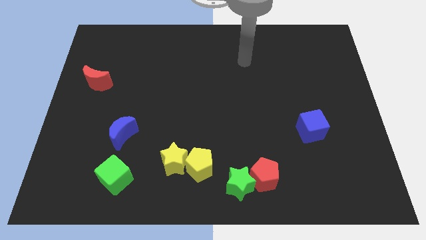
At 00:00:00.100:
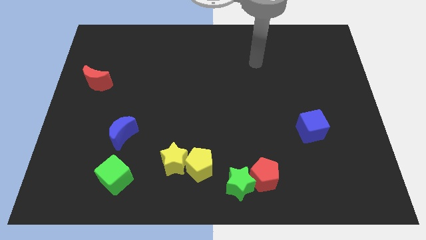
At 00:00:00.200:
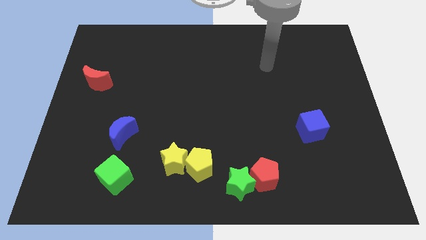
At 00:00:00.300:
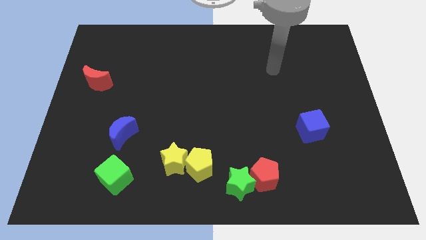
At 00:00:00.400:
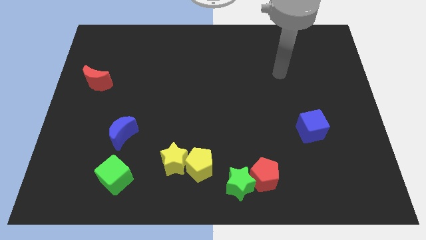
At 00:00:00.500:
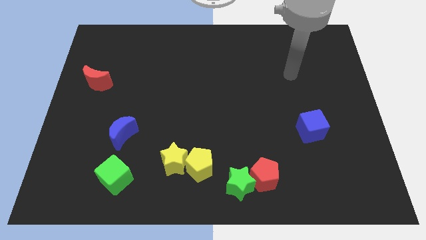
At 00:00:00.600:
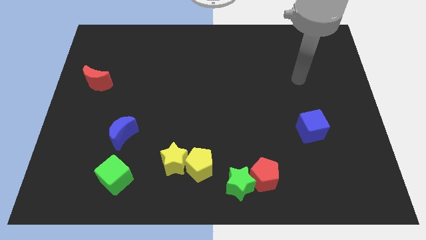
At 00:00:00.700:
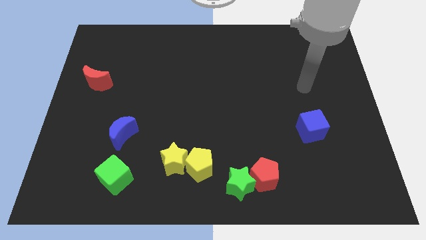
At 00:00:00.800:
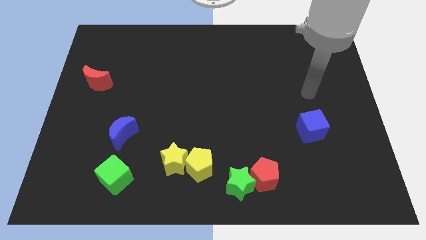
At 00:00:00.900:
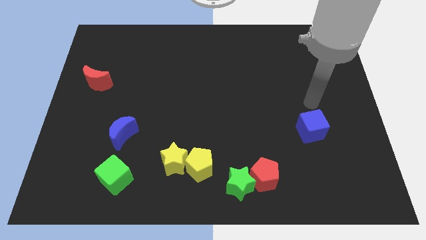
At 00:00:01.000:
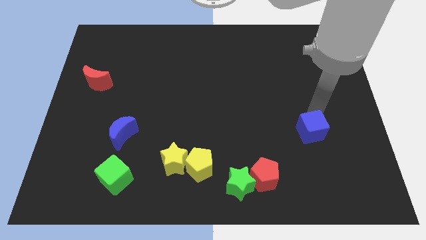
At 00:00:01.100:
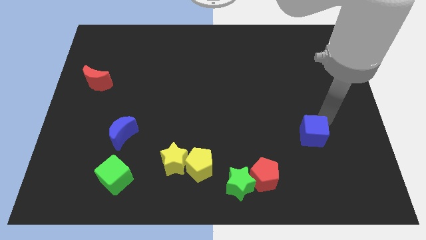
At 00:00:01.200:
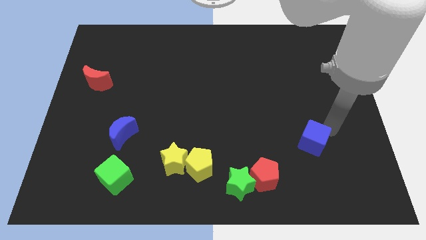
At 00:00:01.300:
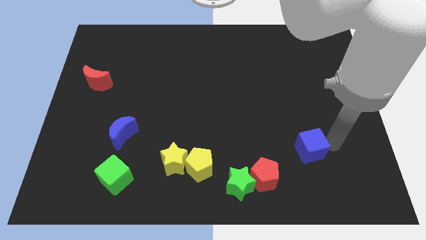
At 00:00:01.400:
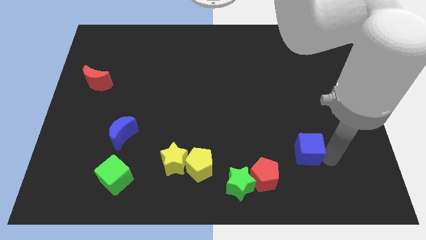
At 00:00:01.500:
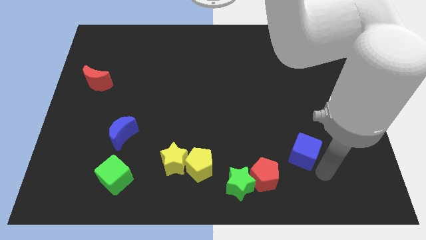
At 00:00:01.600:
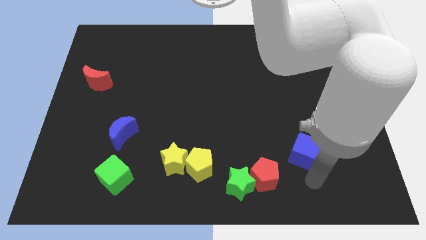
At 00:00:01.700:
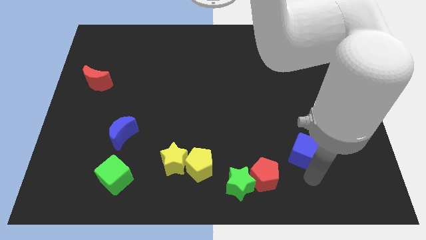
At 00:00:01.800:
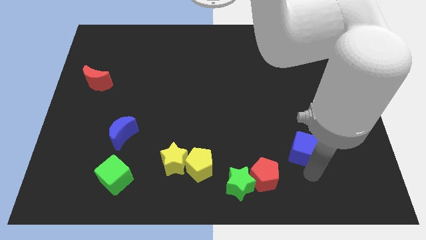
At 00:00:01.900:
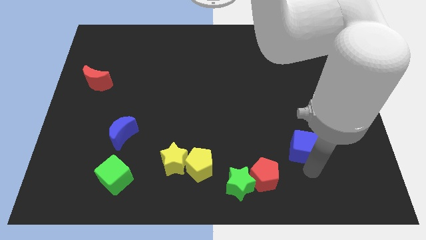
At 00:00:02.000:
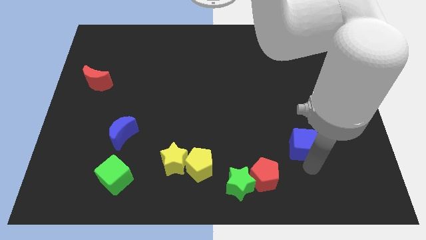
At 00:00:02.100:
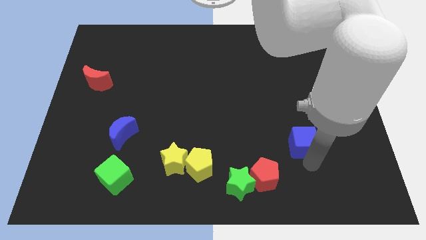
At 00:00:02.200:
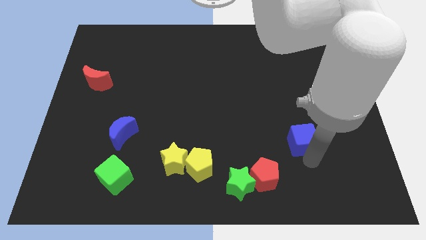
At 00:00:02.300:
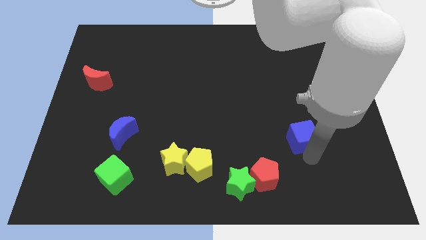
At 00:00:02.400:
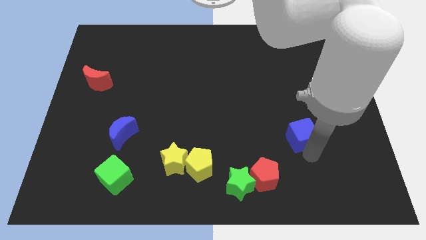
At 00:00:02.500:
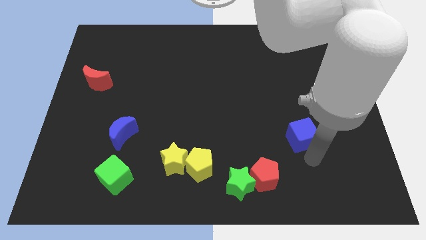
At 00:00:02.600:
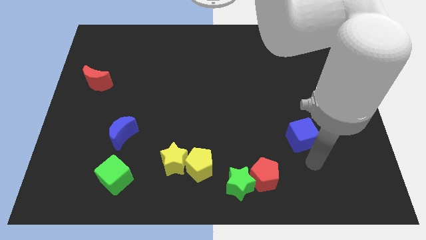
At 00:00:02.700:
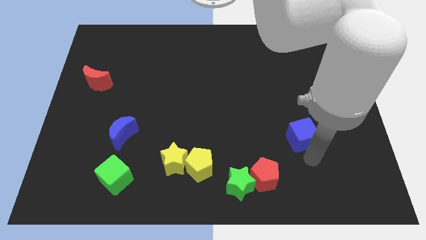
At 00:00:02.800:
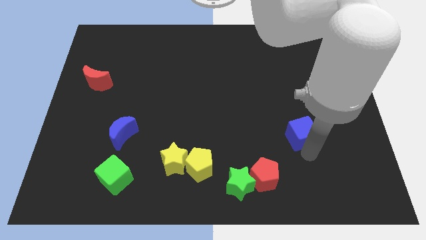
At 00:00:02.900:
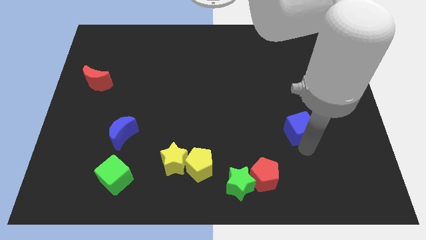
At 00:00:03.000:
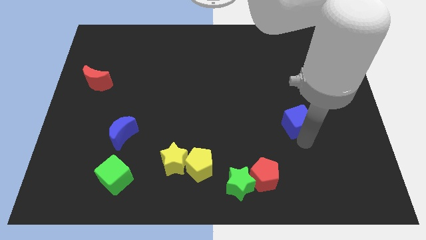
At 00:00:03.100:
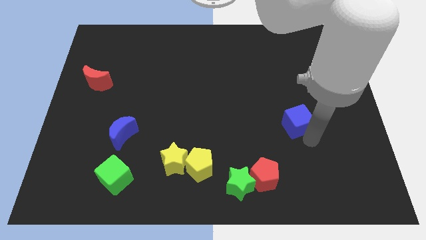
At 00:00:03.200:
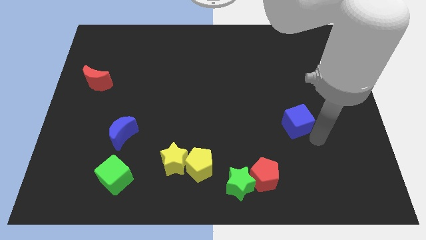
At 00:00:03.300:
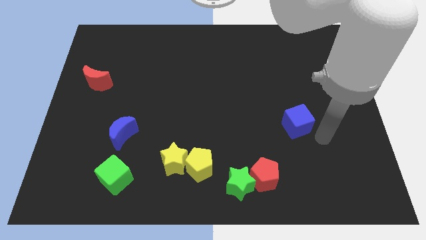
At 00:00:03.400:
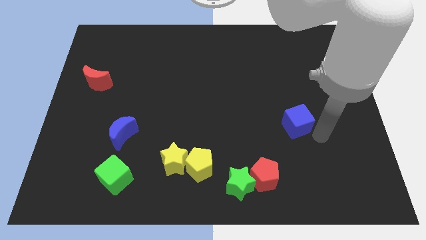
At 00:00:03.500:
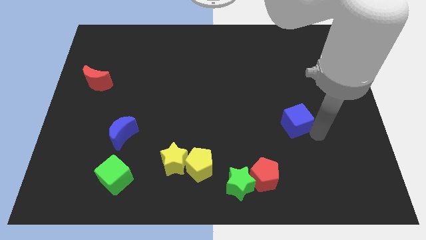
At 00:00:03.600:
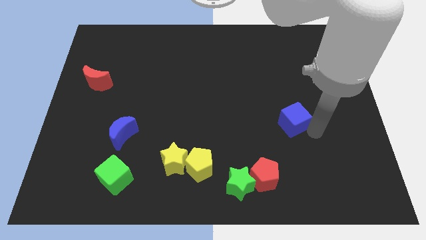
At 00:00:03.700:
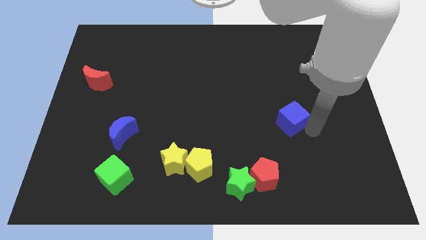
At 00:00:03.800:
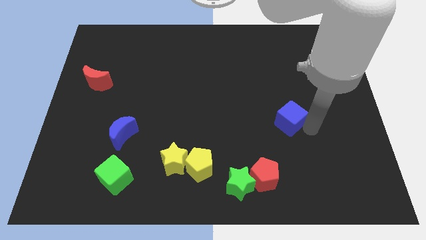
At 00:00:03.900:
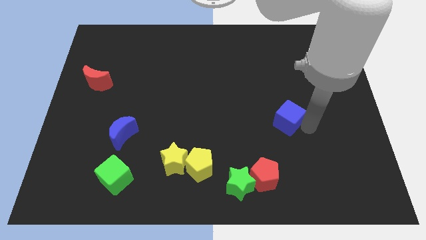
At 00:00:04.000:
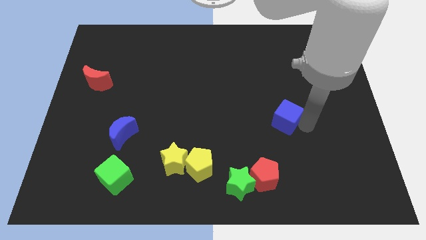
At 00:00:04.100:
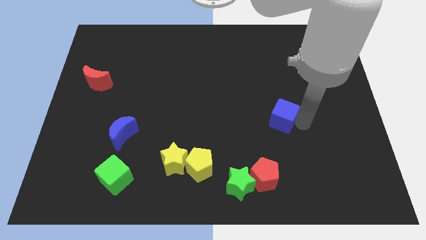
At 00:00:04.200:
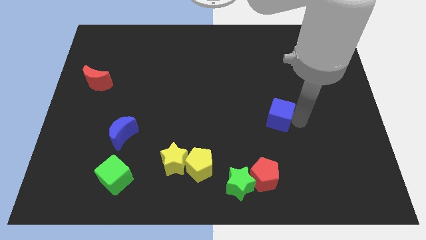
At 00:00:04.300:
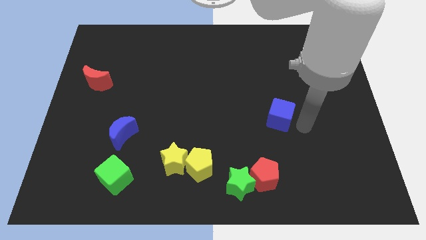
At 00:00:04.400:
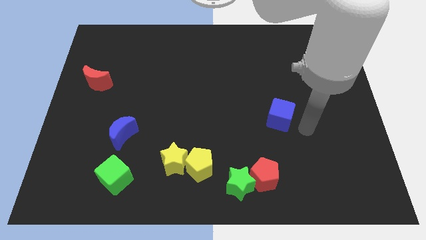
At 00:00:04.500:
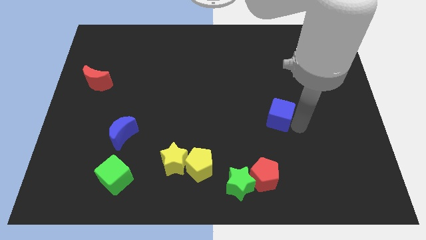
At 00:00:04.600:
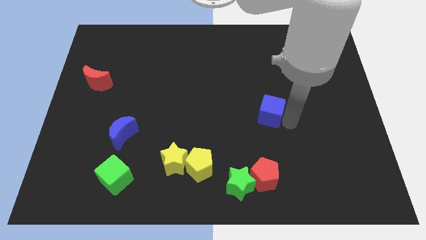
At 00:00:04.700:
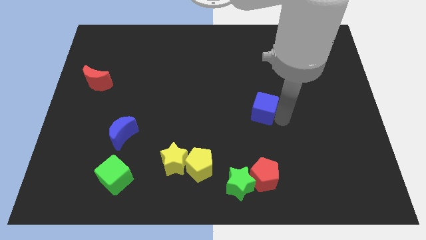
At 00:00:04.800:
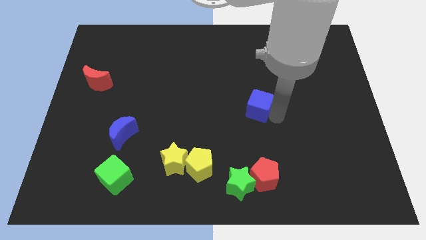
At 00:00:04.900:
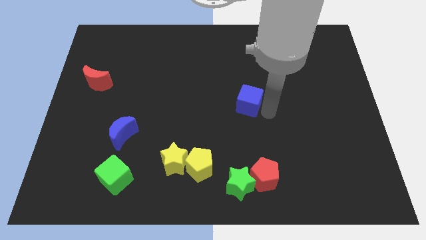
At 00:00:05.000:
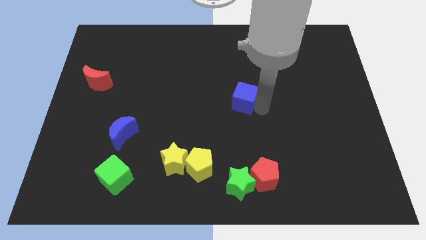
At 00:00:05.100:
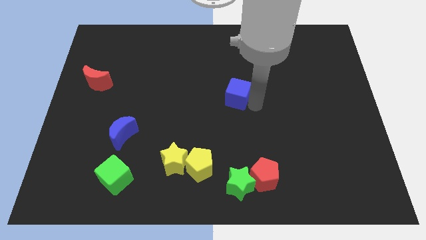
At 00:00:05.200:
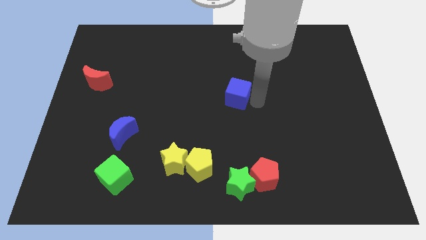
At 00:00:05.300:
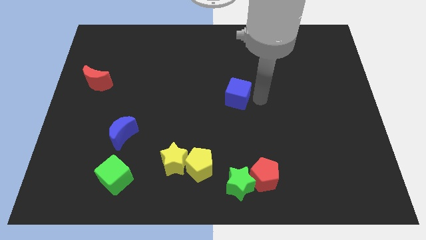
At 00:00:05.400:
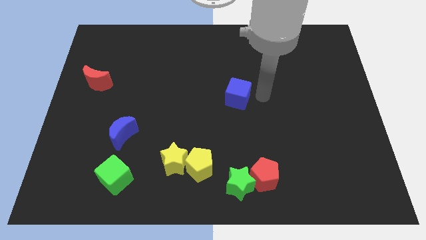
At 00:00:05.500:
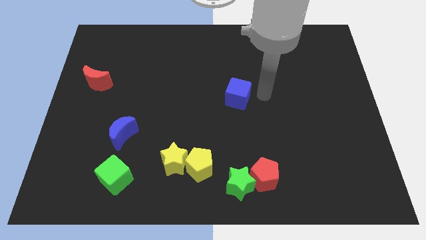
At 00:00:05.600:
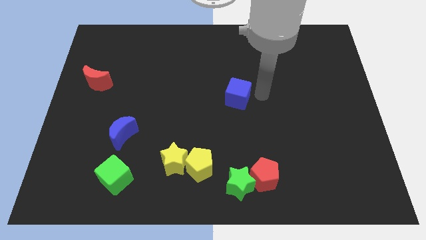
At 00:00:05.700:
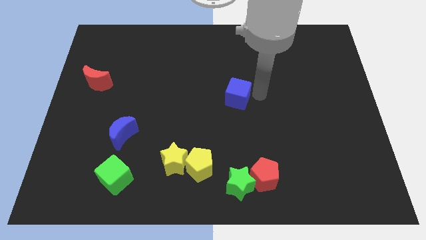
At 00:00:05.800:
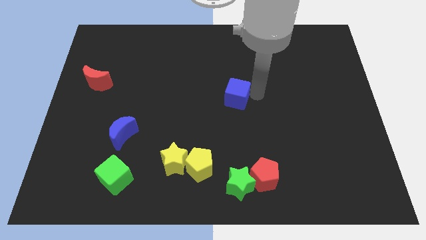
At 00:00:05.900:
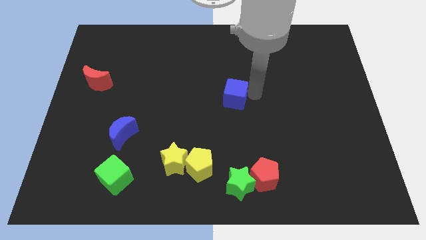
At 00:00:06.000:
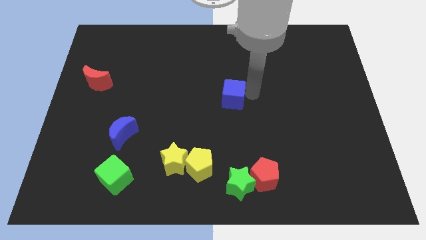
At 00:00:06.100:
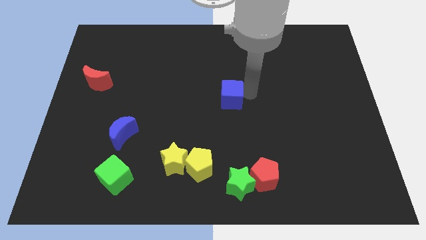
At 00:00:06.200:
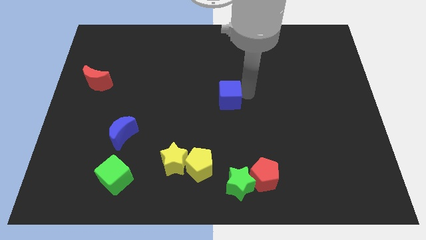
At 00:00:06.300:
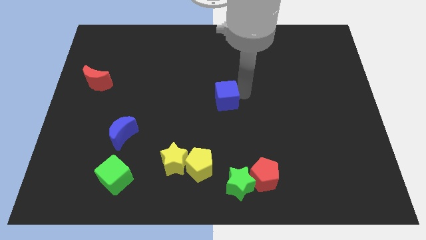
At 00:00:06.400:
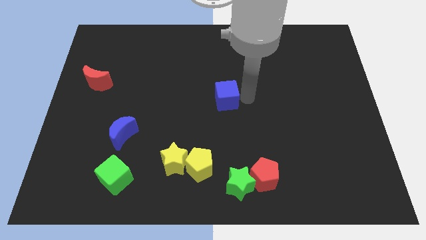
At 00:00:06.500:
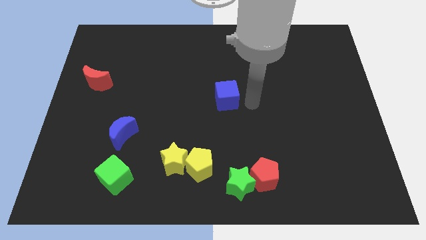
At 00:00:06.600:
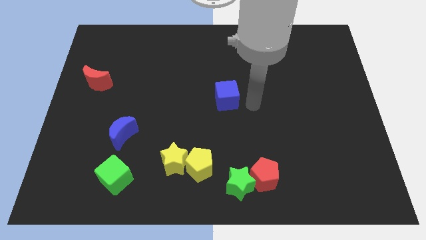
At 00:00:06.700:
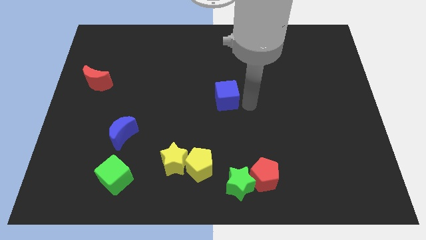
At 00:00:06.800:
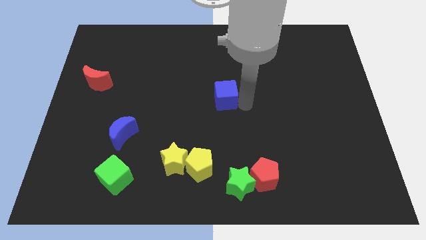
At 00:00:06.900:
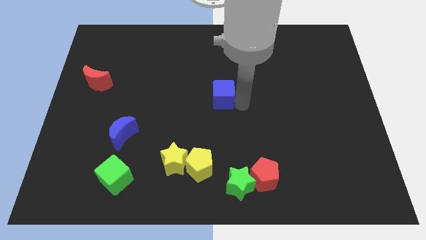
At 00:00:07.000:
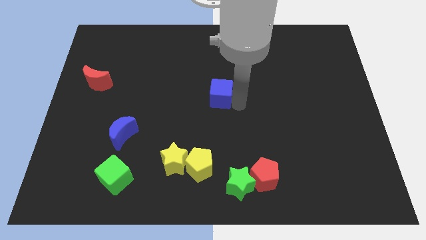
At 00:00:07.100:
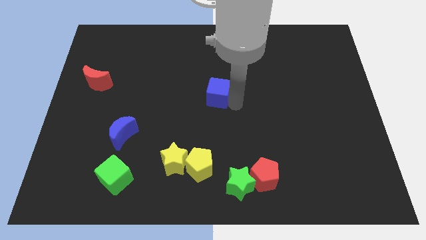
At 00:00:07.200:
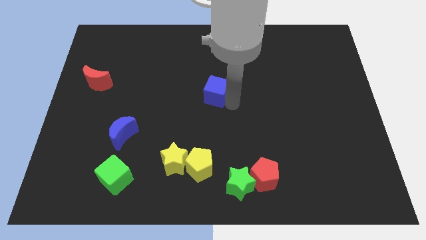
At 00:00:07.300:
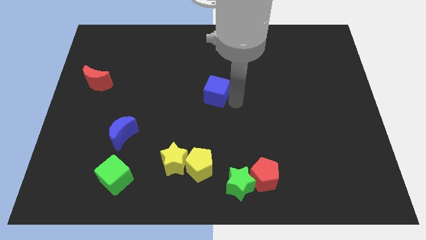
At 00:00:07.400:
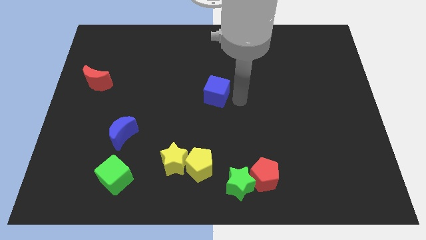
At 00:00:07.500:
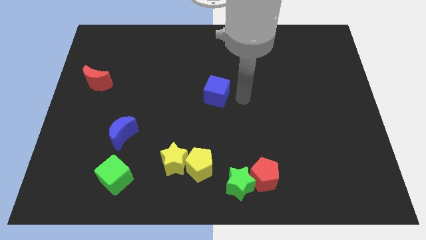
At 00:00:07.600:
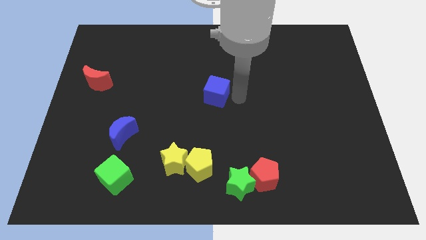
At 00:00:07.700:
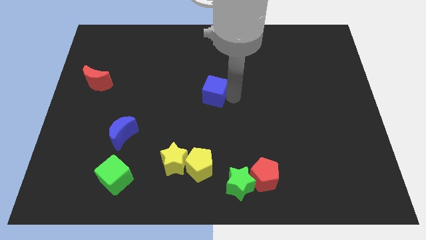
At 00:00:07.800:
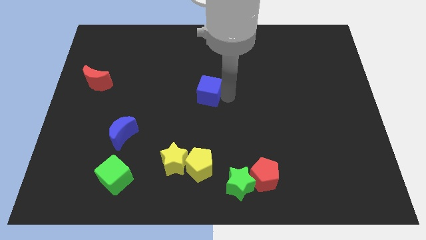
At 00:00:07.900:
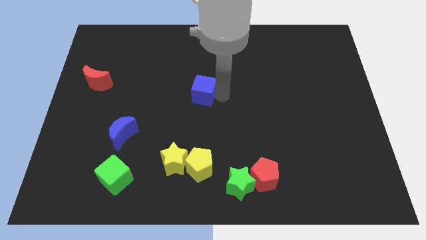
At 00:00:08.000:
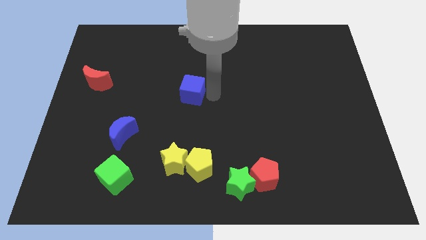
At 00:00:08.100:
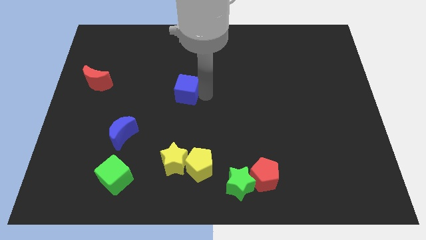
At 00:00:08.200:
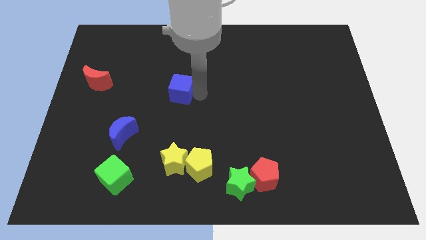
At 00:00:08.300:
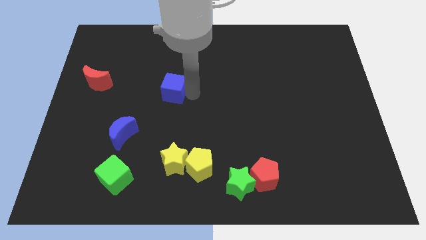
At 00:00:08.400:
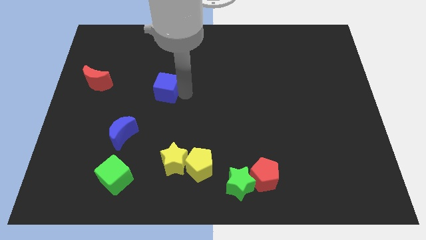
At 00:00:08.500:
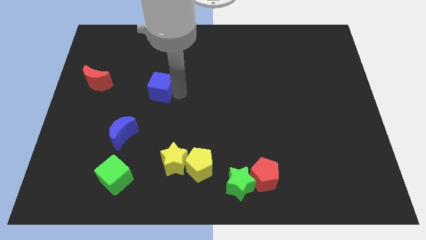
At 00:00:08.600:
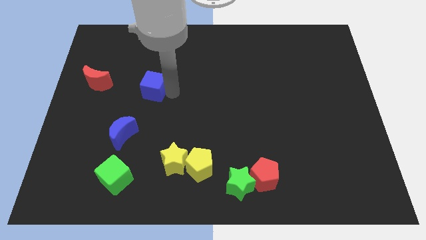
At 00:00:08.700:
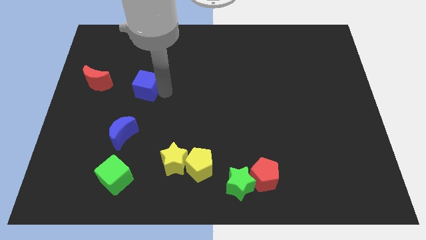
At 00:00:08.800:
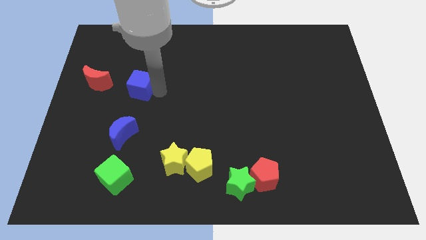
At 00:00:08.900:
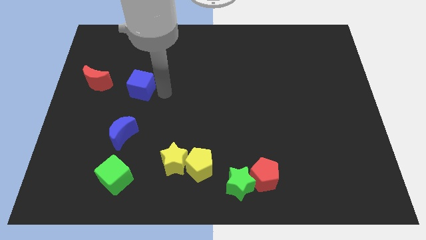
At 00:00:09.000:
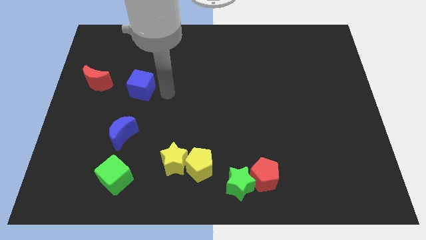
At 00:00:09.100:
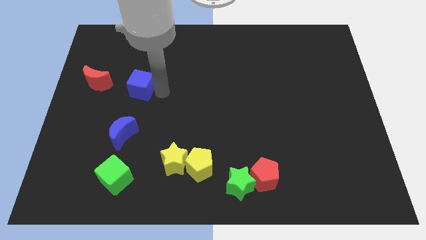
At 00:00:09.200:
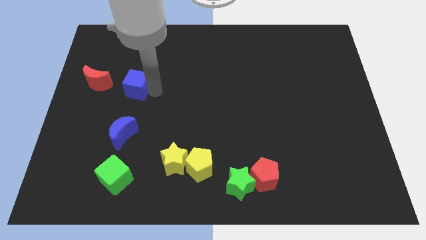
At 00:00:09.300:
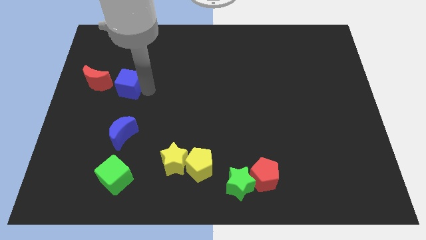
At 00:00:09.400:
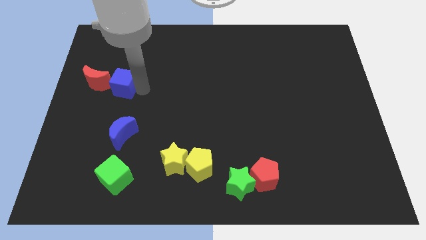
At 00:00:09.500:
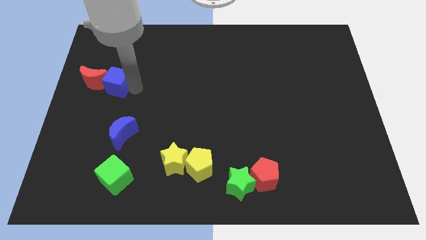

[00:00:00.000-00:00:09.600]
put the blue cube towards the red moon
